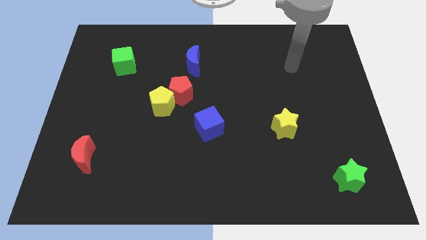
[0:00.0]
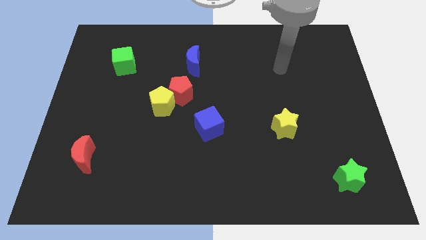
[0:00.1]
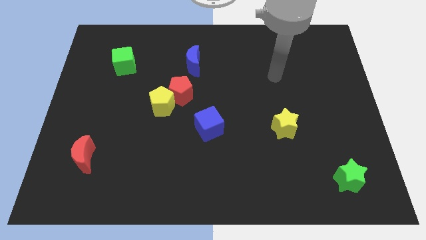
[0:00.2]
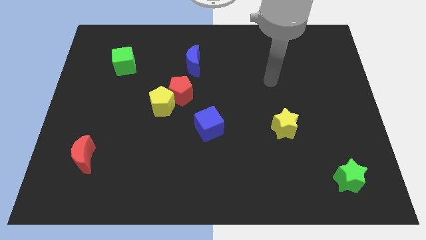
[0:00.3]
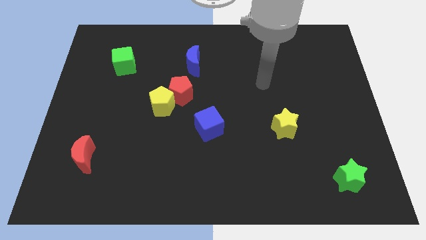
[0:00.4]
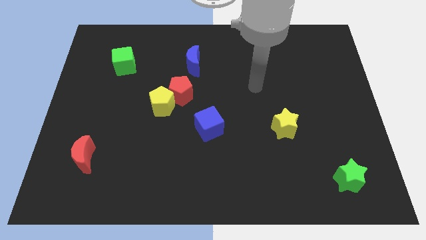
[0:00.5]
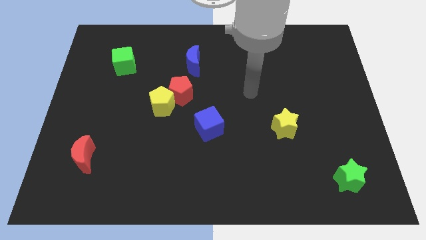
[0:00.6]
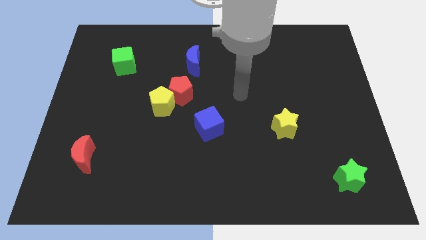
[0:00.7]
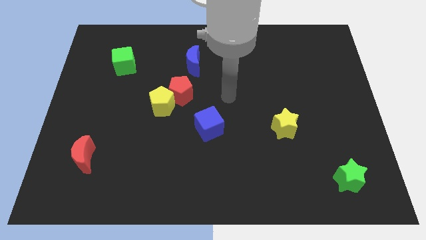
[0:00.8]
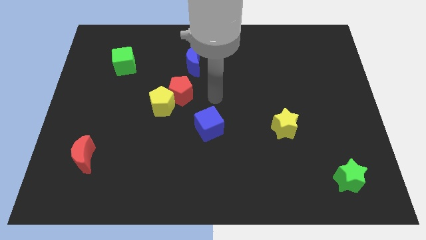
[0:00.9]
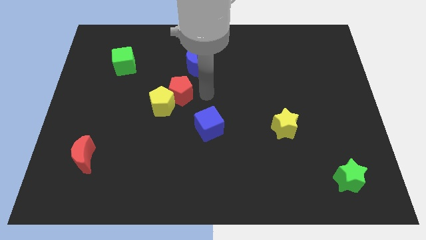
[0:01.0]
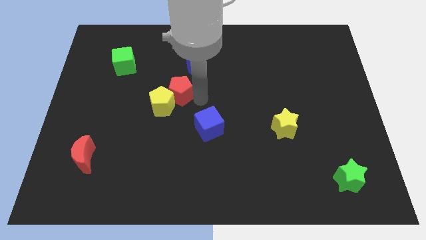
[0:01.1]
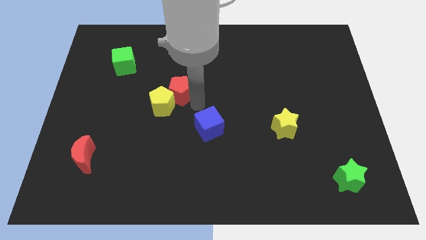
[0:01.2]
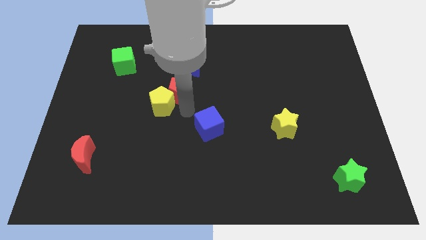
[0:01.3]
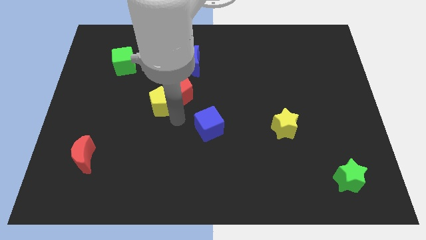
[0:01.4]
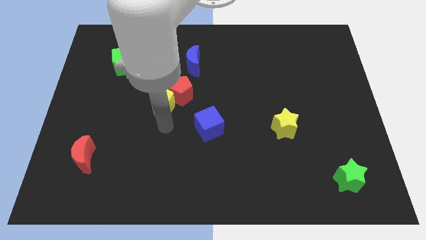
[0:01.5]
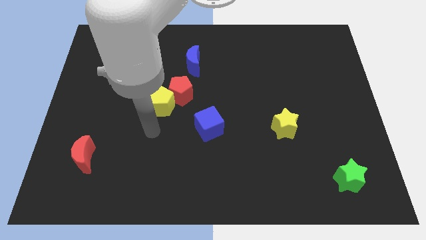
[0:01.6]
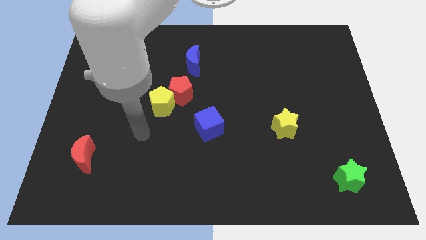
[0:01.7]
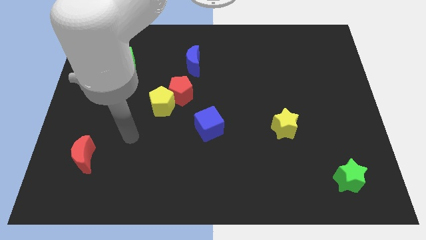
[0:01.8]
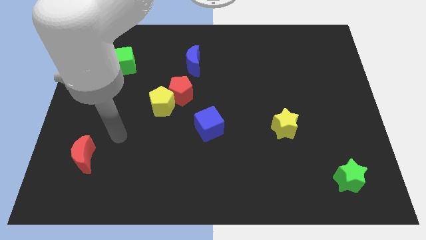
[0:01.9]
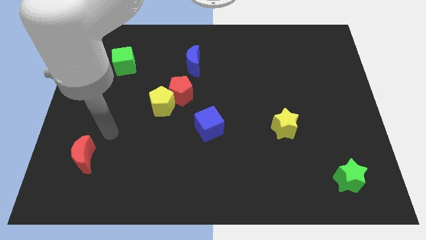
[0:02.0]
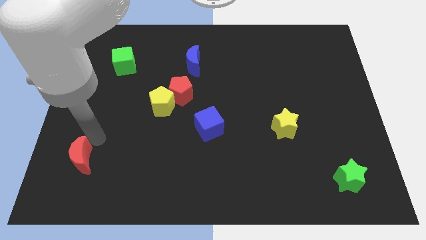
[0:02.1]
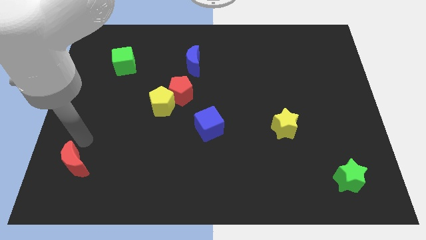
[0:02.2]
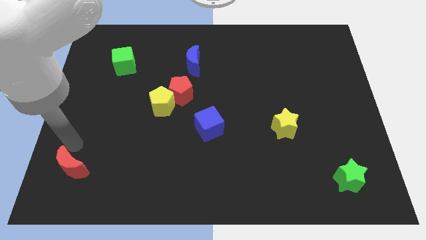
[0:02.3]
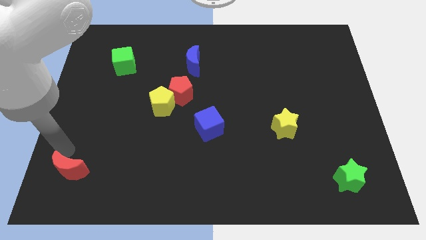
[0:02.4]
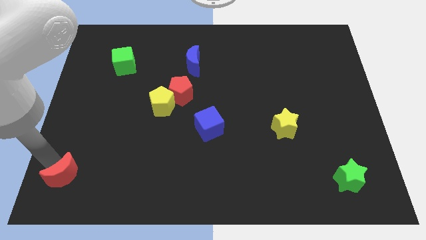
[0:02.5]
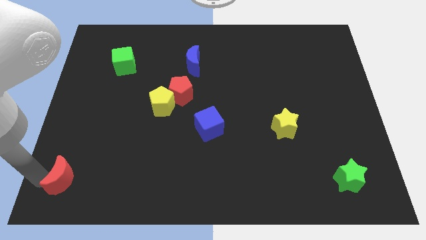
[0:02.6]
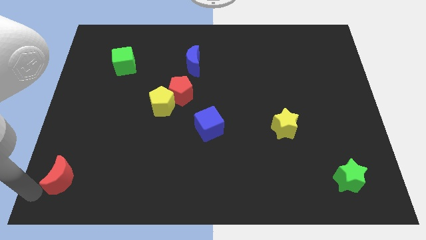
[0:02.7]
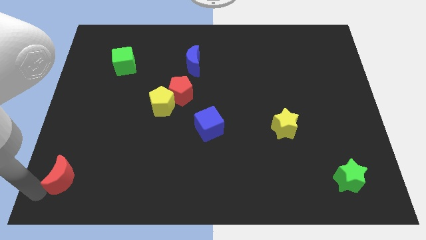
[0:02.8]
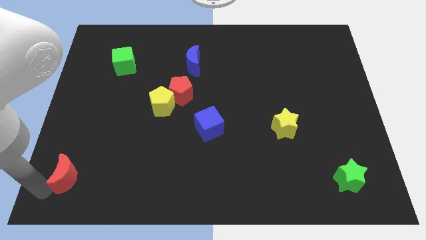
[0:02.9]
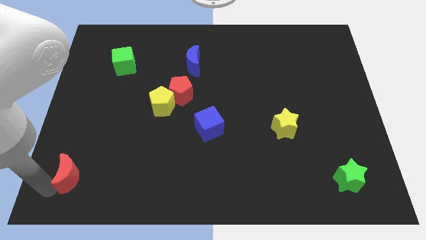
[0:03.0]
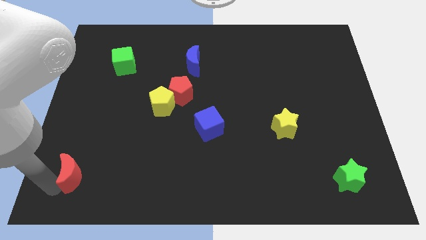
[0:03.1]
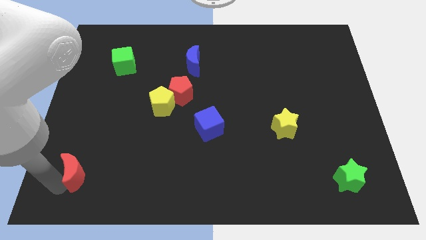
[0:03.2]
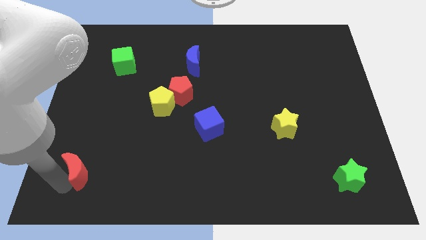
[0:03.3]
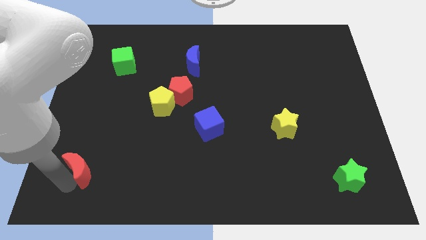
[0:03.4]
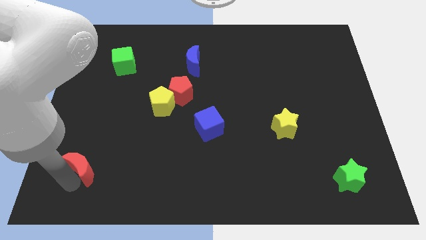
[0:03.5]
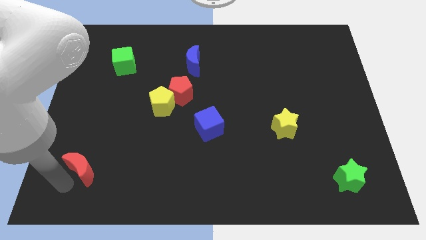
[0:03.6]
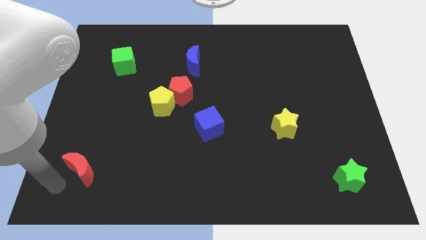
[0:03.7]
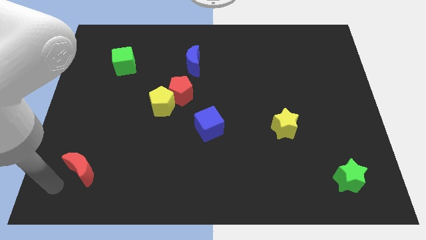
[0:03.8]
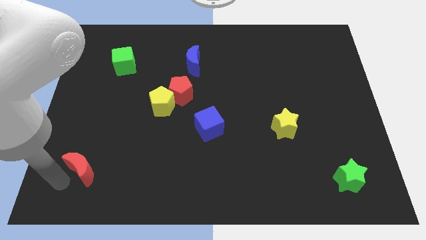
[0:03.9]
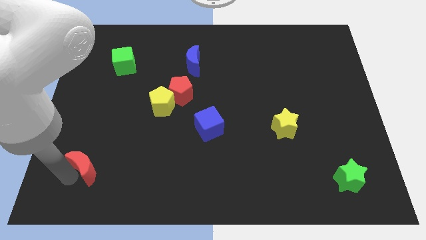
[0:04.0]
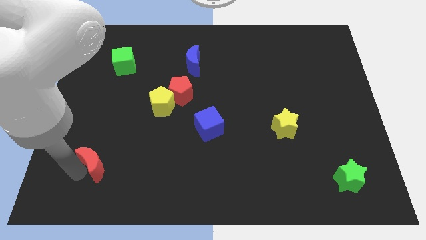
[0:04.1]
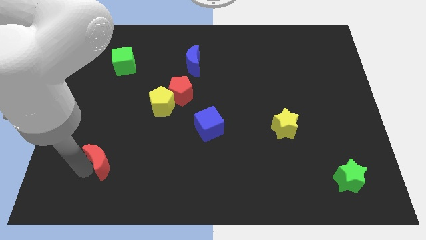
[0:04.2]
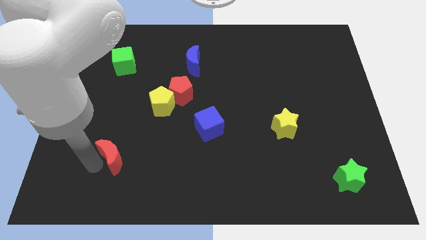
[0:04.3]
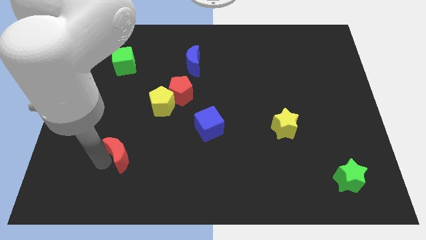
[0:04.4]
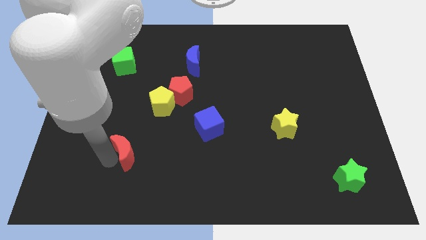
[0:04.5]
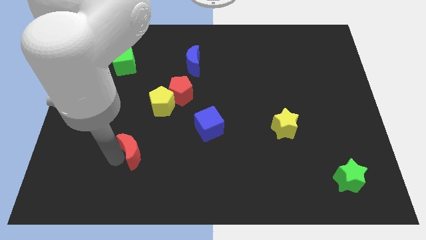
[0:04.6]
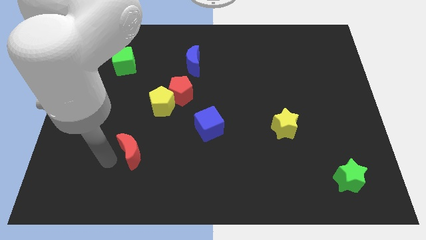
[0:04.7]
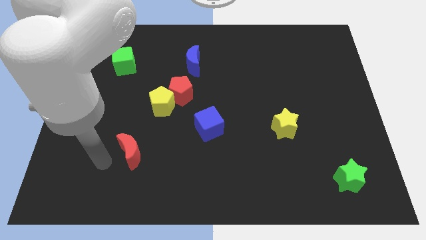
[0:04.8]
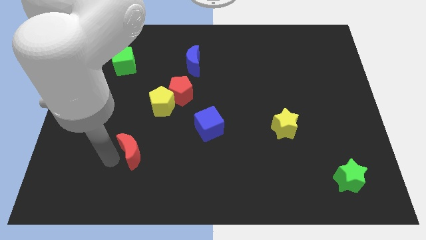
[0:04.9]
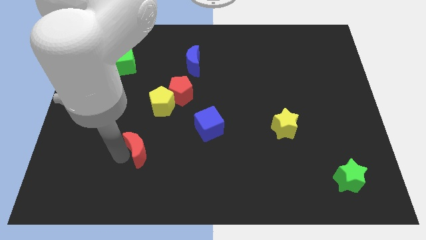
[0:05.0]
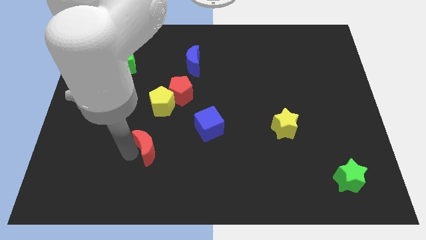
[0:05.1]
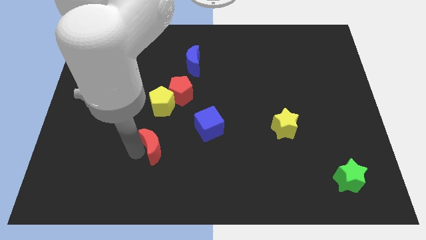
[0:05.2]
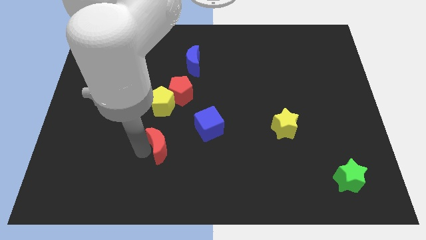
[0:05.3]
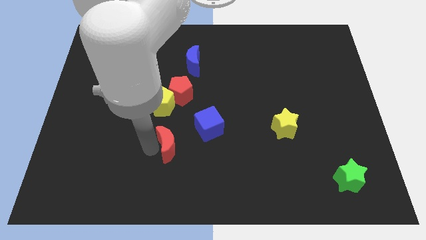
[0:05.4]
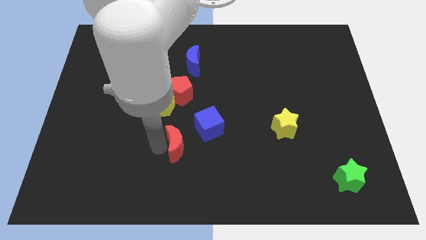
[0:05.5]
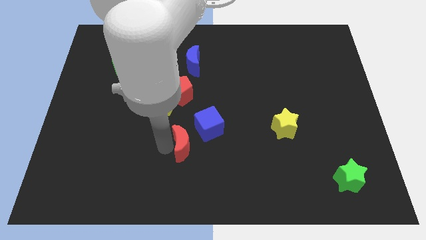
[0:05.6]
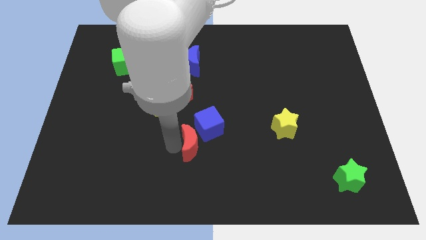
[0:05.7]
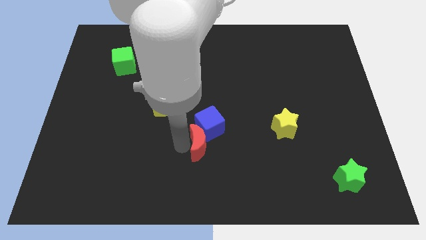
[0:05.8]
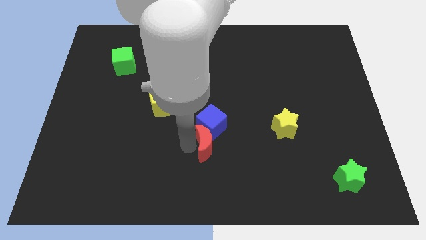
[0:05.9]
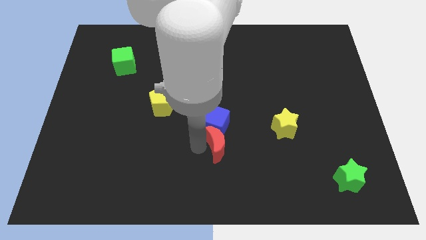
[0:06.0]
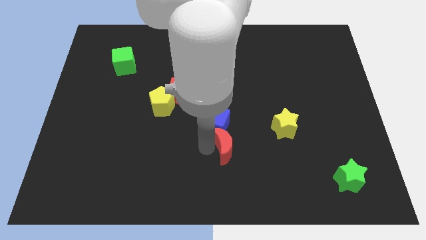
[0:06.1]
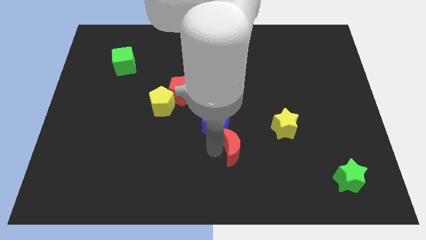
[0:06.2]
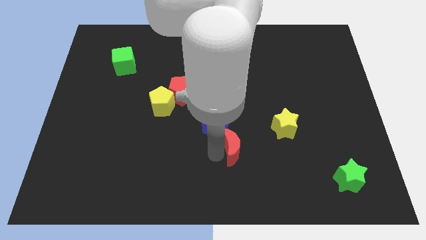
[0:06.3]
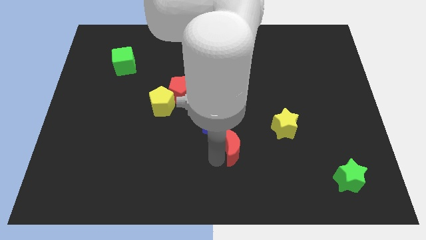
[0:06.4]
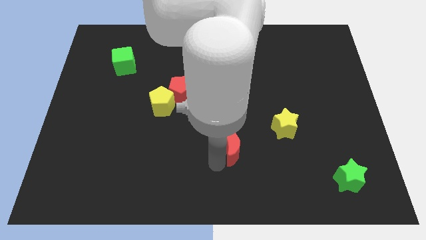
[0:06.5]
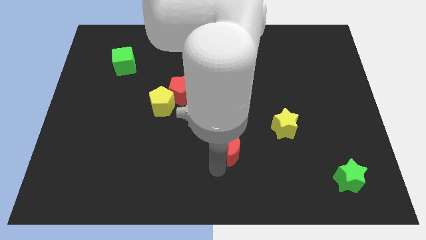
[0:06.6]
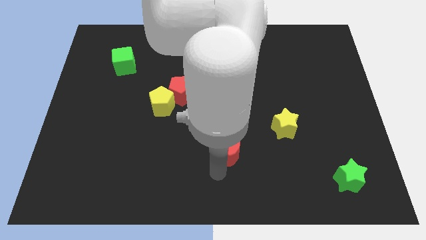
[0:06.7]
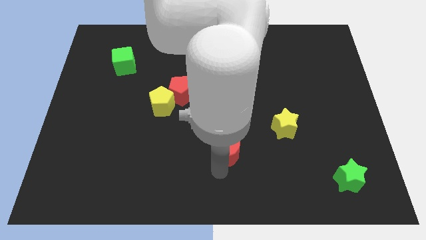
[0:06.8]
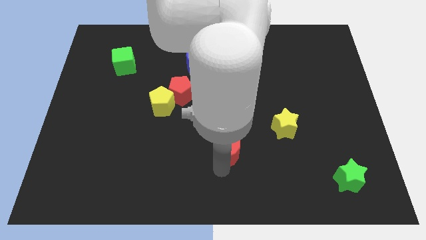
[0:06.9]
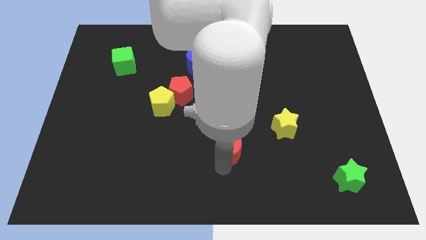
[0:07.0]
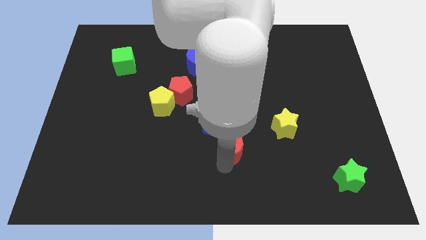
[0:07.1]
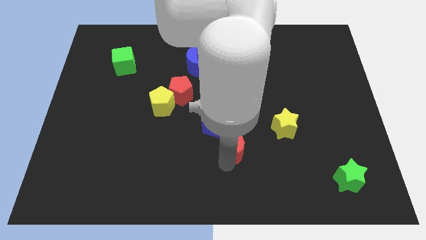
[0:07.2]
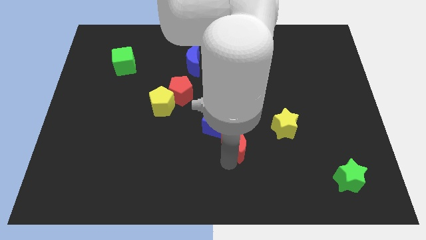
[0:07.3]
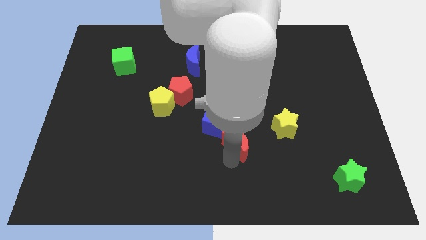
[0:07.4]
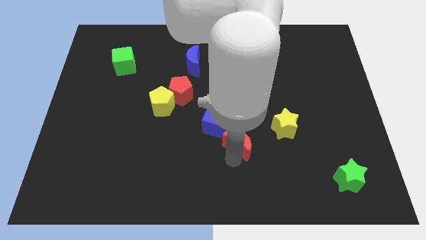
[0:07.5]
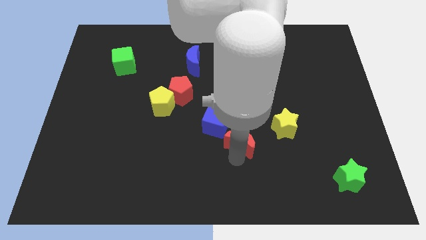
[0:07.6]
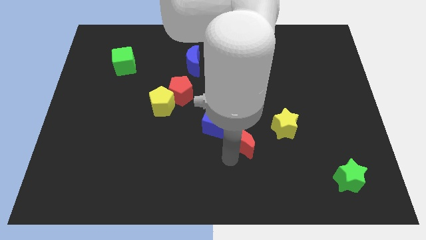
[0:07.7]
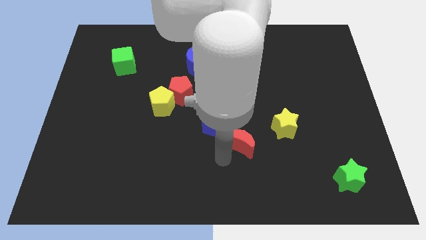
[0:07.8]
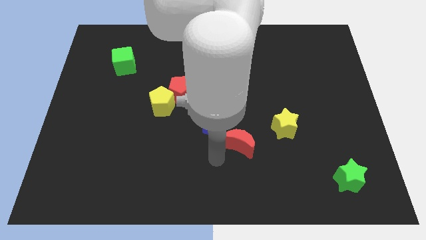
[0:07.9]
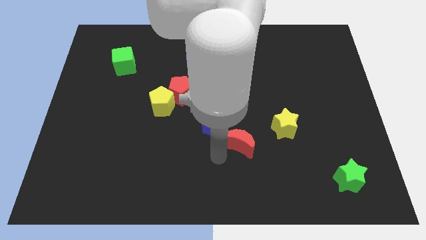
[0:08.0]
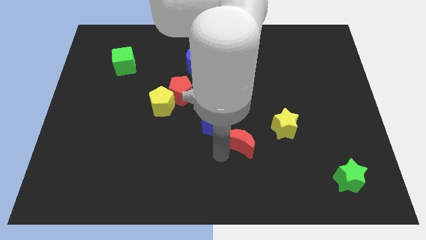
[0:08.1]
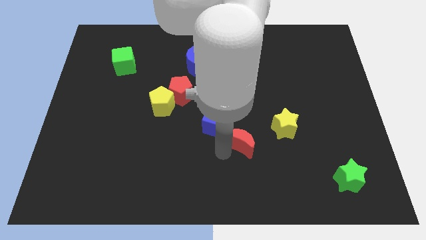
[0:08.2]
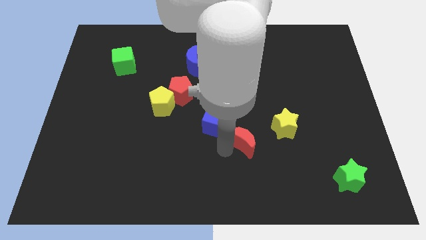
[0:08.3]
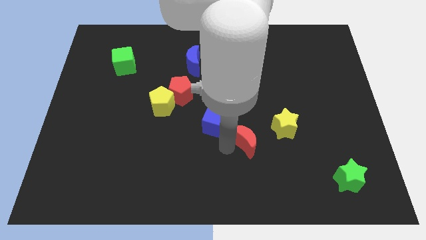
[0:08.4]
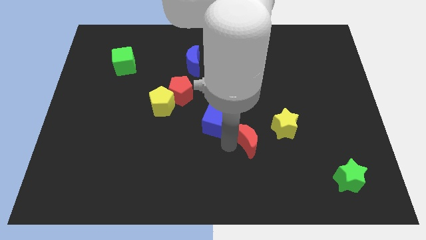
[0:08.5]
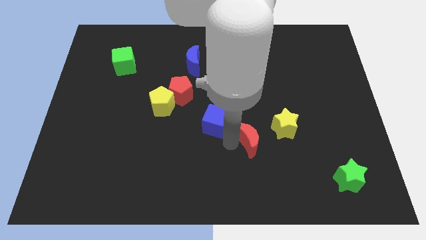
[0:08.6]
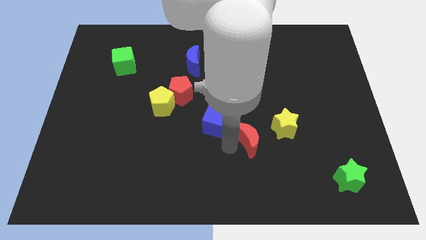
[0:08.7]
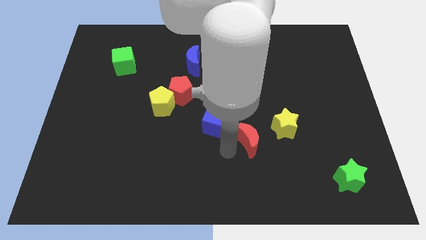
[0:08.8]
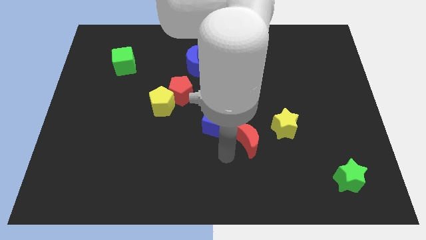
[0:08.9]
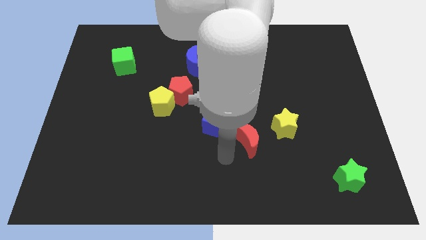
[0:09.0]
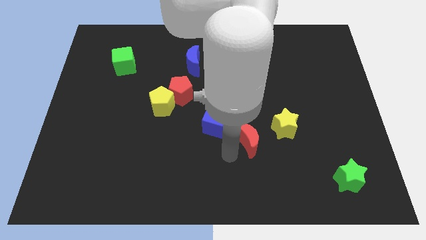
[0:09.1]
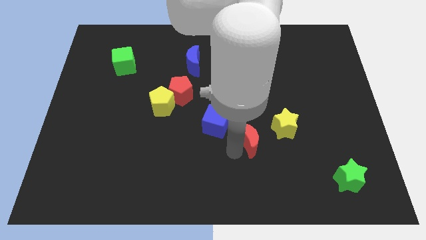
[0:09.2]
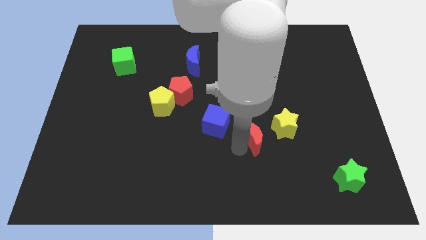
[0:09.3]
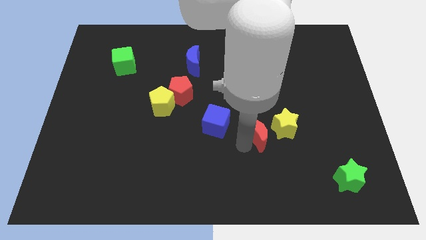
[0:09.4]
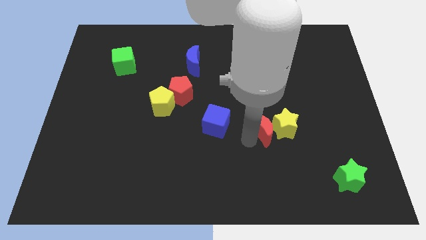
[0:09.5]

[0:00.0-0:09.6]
move the red moon next to the yellow star
